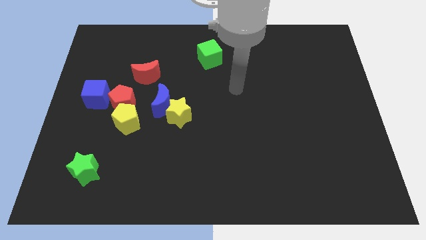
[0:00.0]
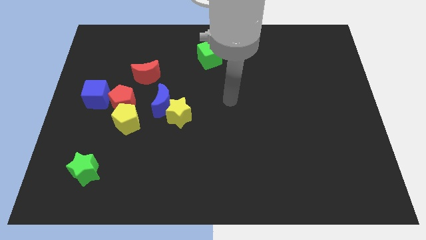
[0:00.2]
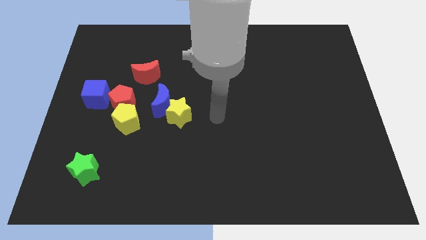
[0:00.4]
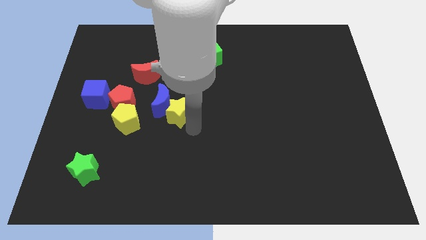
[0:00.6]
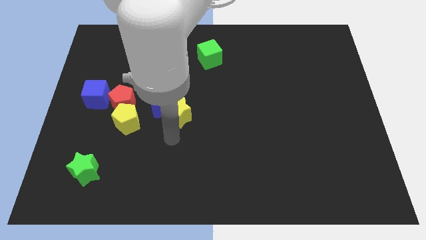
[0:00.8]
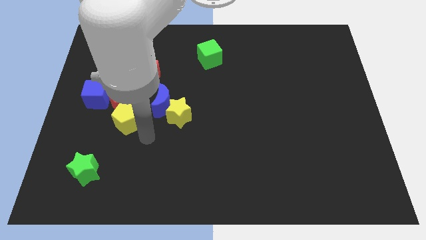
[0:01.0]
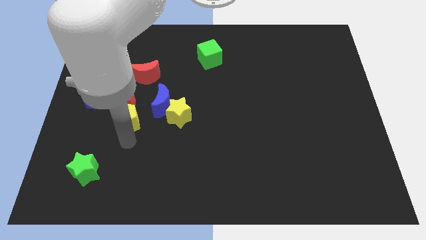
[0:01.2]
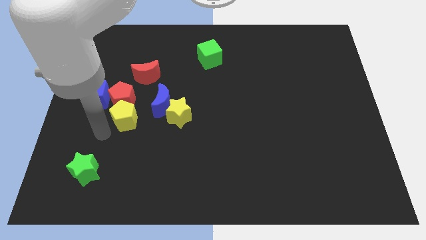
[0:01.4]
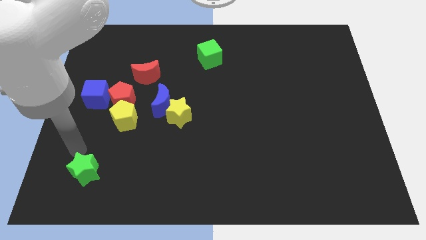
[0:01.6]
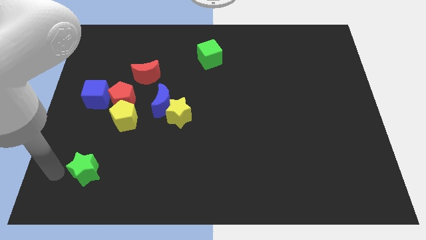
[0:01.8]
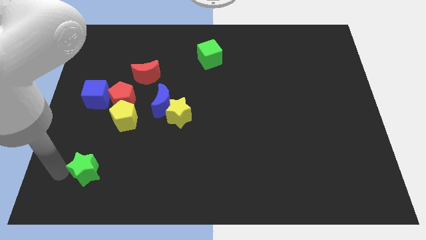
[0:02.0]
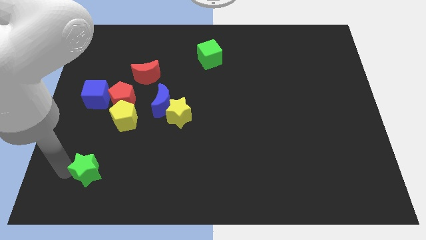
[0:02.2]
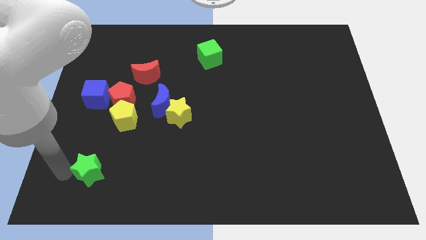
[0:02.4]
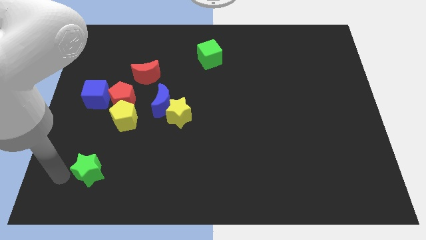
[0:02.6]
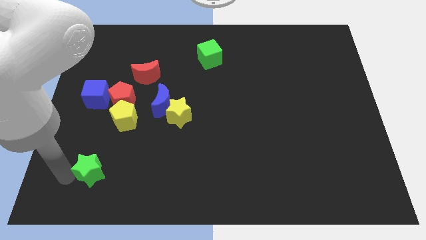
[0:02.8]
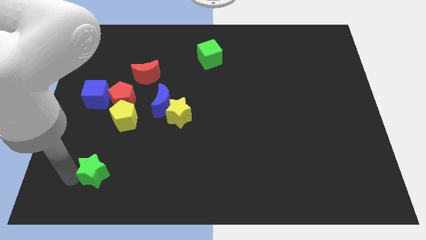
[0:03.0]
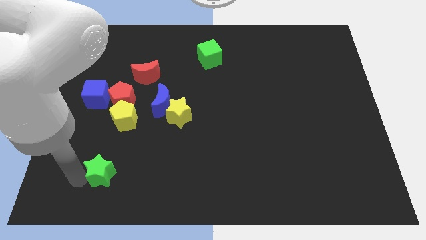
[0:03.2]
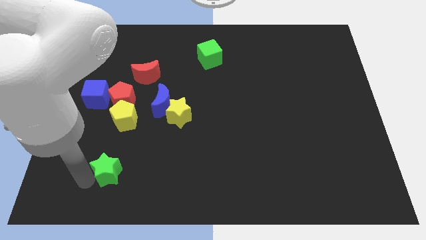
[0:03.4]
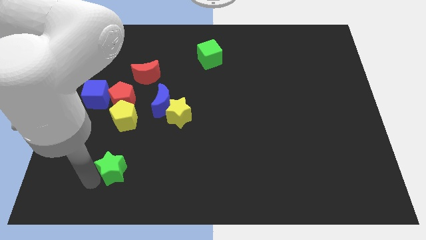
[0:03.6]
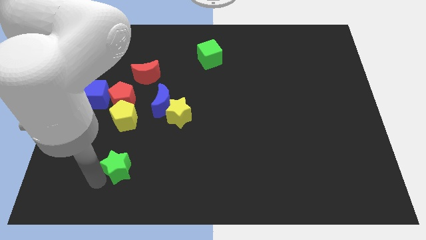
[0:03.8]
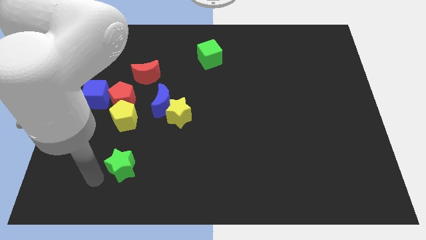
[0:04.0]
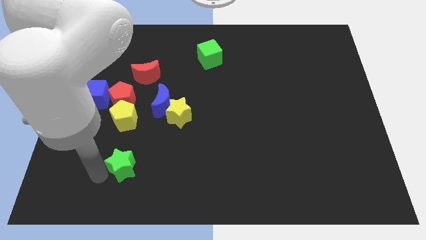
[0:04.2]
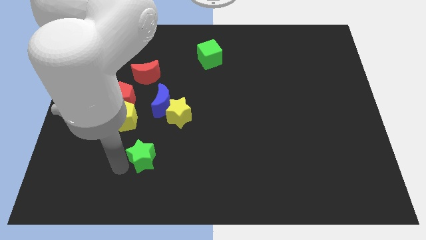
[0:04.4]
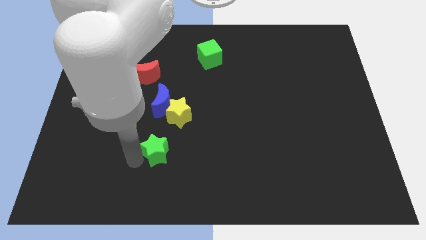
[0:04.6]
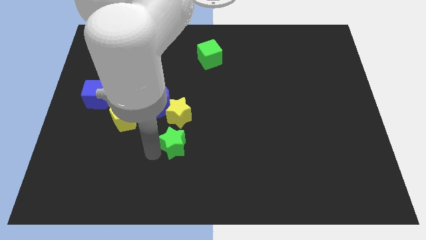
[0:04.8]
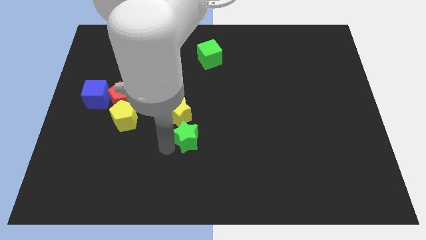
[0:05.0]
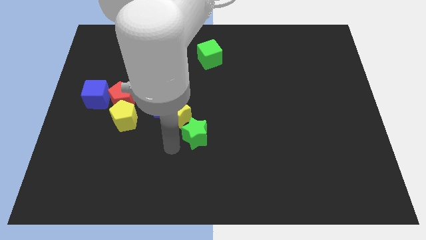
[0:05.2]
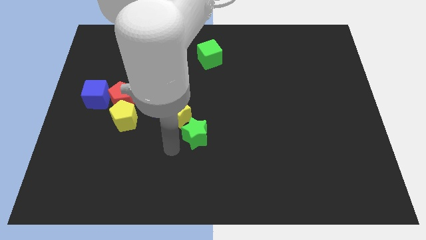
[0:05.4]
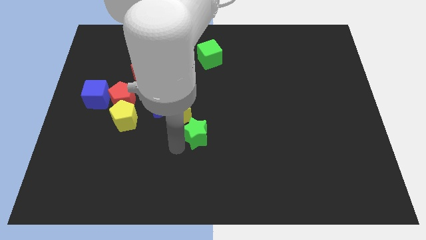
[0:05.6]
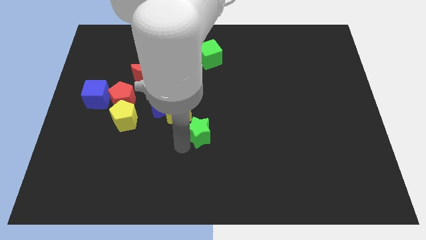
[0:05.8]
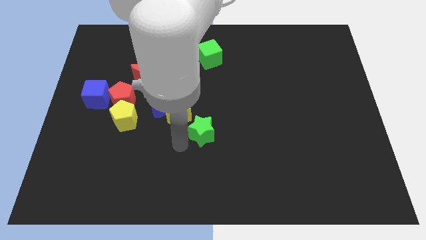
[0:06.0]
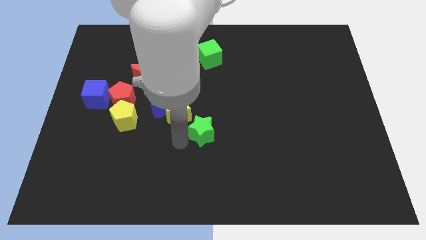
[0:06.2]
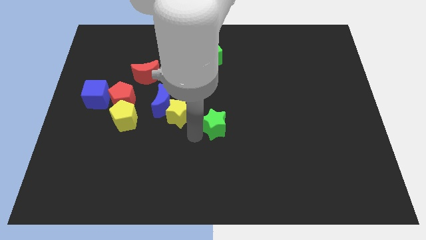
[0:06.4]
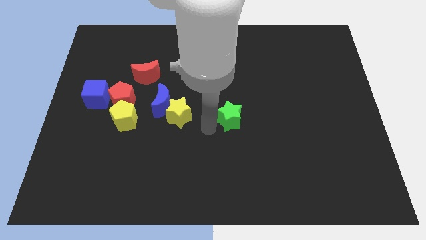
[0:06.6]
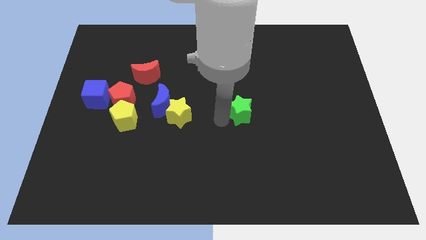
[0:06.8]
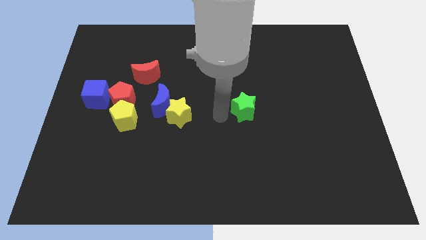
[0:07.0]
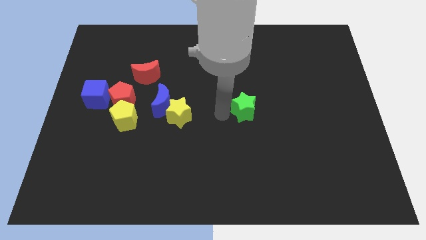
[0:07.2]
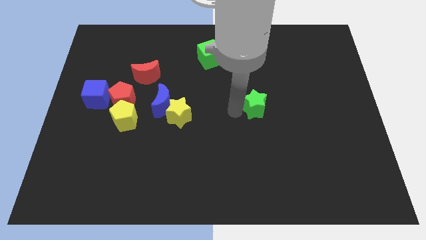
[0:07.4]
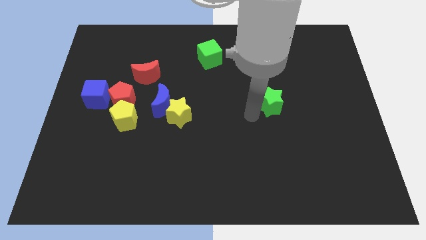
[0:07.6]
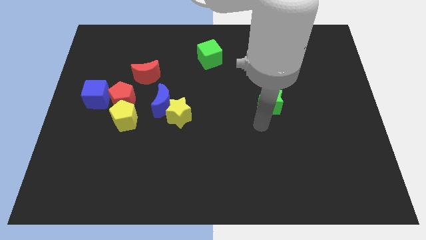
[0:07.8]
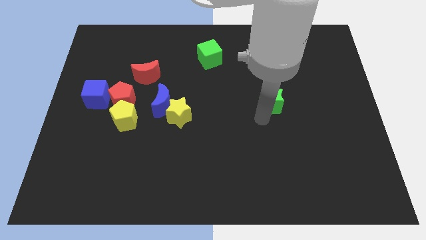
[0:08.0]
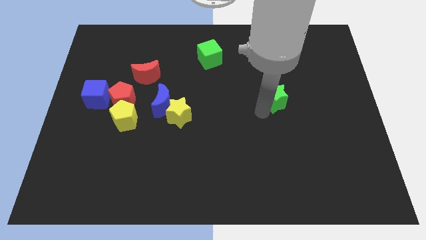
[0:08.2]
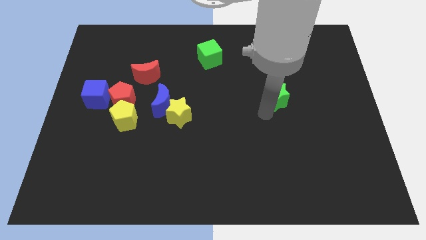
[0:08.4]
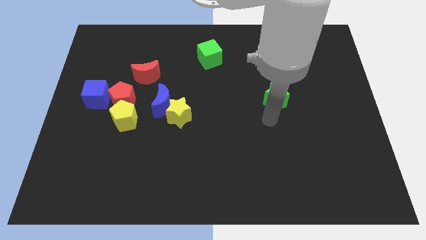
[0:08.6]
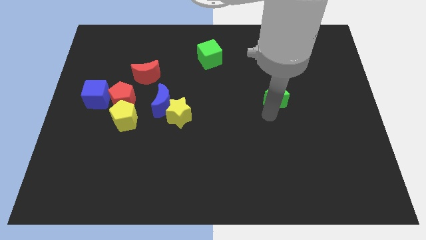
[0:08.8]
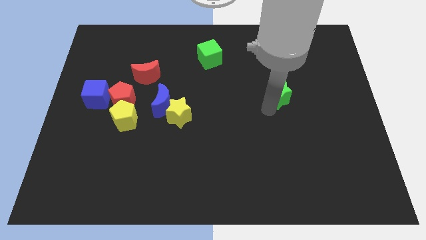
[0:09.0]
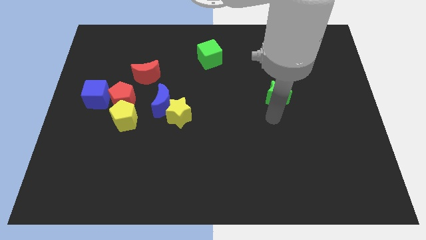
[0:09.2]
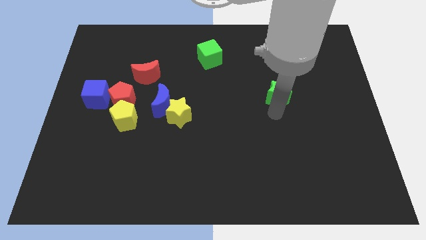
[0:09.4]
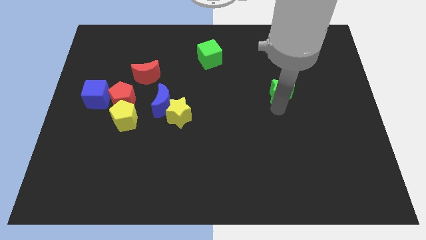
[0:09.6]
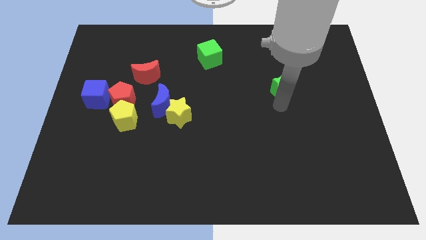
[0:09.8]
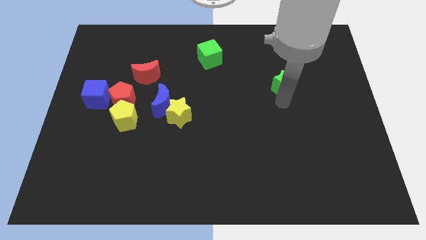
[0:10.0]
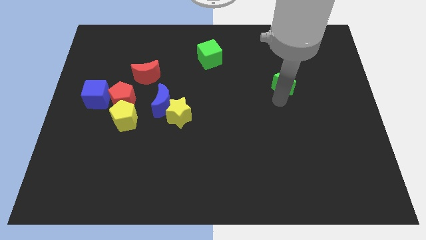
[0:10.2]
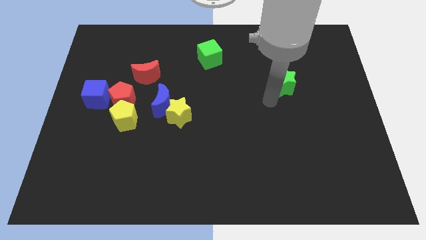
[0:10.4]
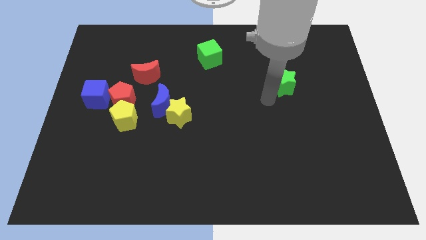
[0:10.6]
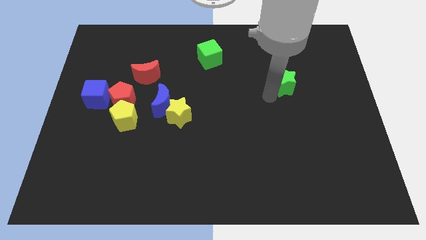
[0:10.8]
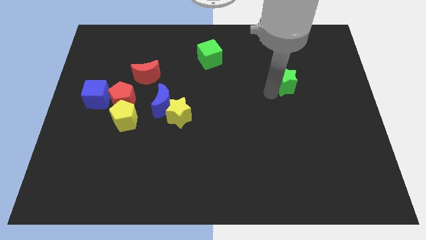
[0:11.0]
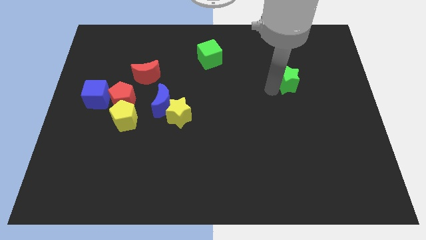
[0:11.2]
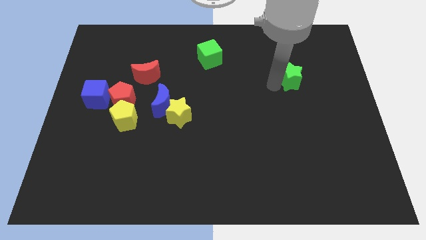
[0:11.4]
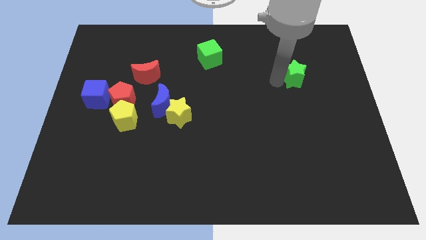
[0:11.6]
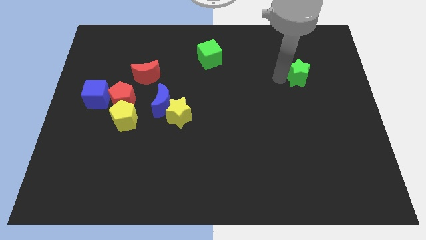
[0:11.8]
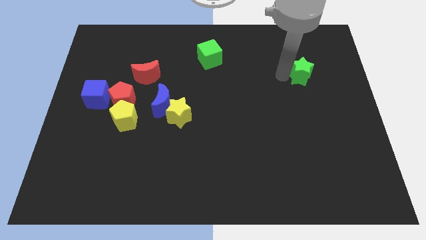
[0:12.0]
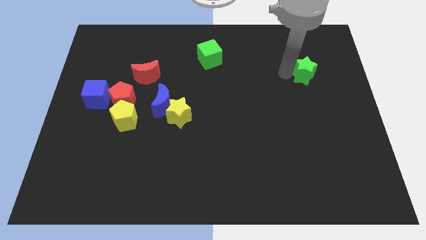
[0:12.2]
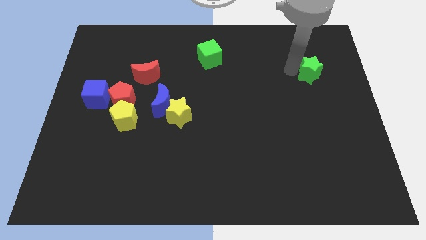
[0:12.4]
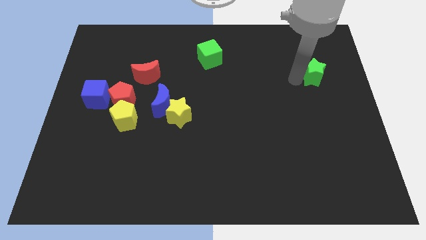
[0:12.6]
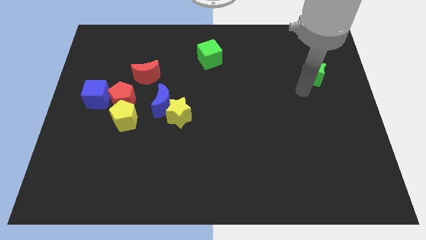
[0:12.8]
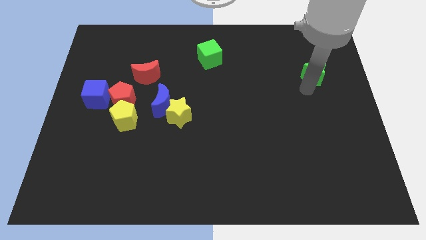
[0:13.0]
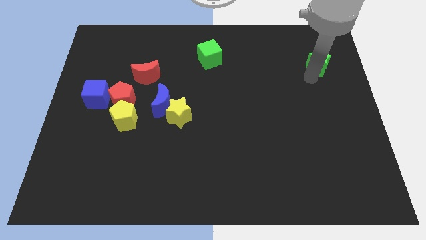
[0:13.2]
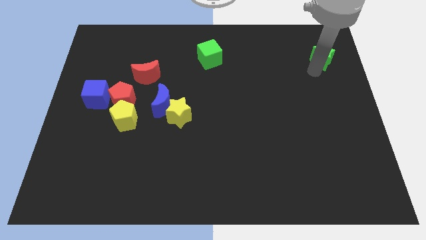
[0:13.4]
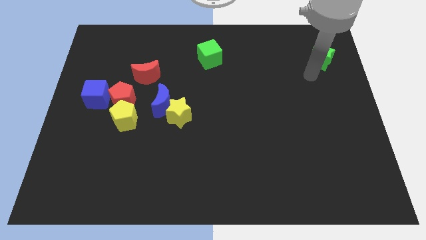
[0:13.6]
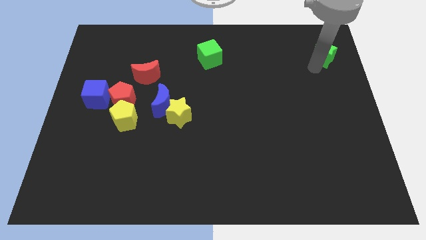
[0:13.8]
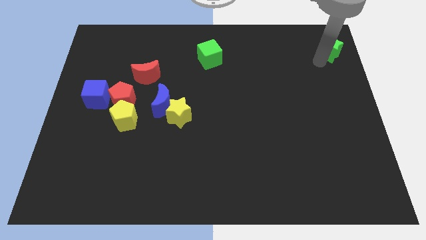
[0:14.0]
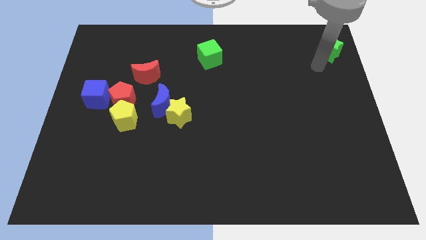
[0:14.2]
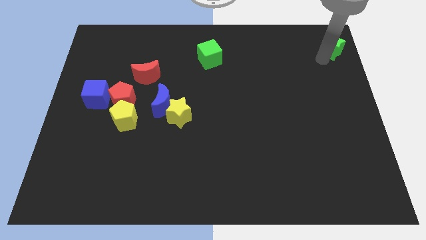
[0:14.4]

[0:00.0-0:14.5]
slide the green star to the top right corner
